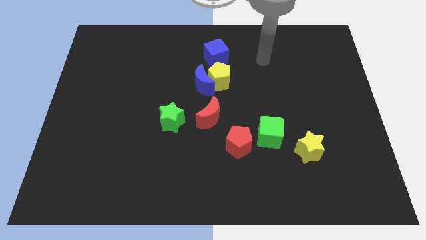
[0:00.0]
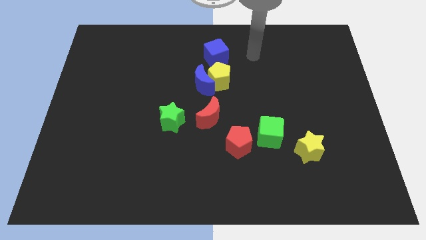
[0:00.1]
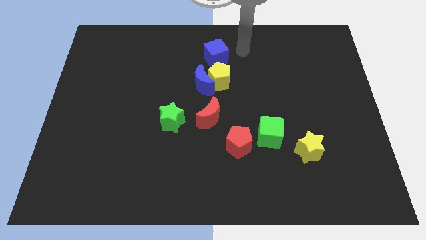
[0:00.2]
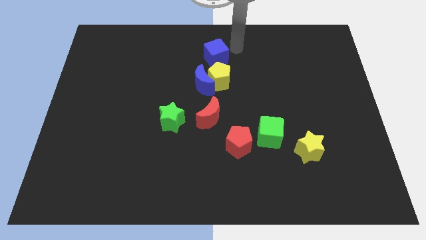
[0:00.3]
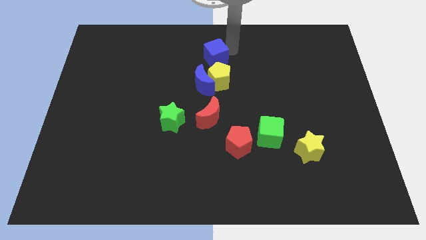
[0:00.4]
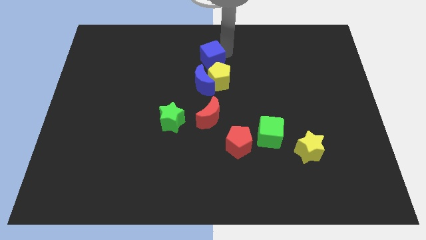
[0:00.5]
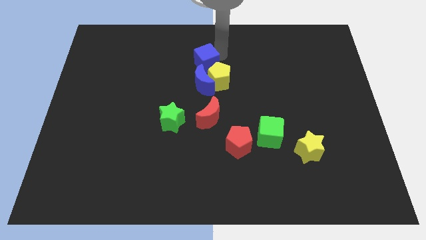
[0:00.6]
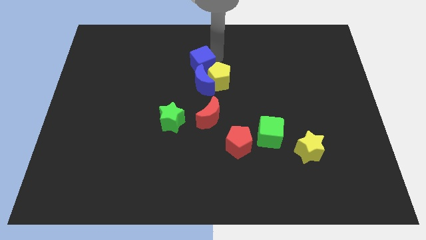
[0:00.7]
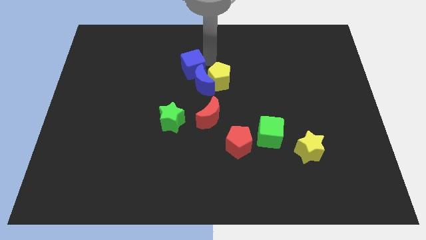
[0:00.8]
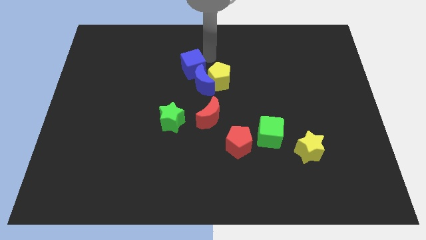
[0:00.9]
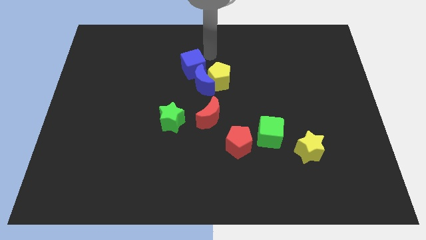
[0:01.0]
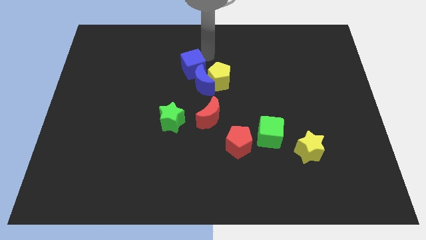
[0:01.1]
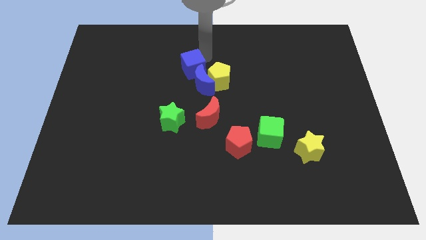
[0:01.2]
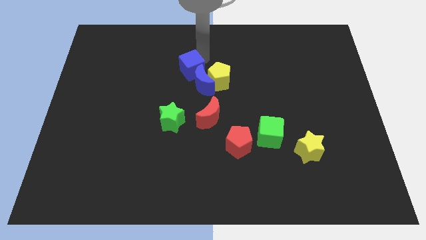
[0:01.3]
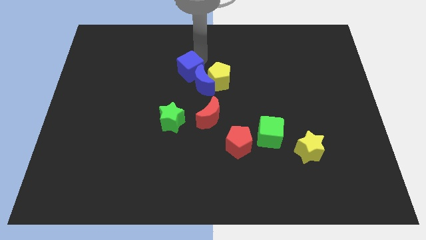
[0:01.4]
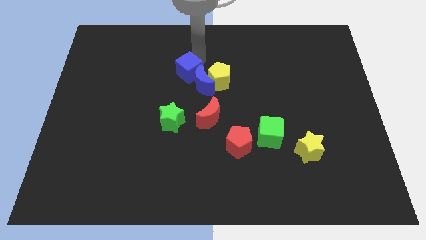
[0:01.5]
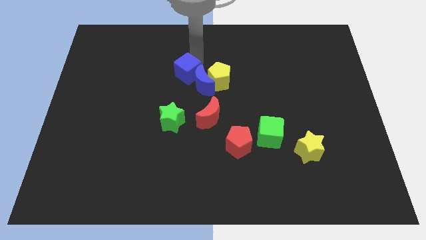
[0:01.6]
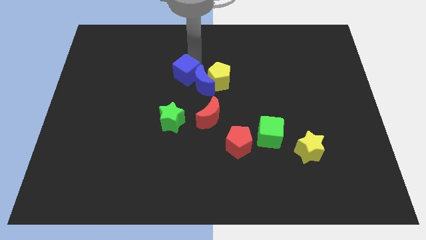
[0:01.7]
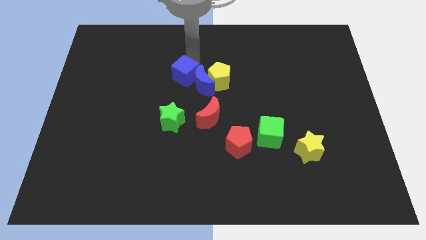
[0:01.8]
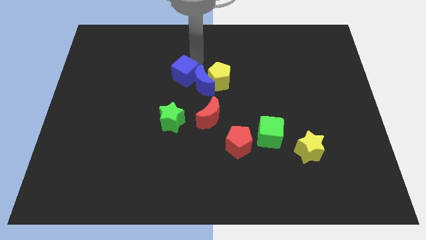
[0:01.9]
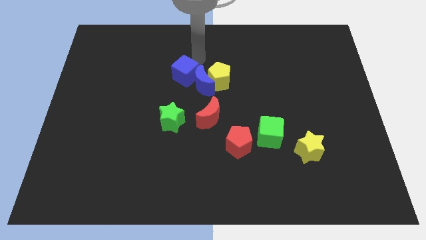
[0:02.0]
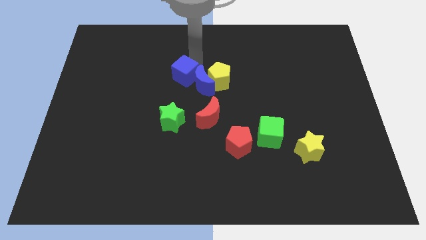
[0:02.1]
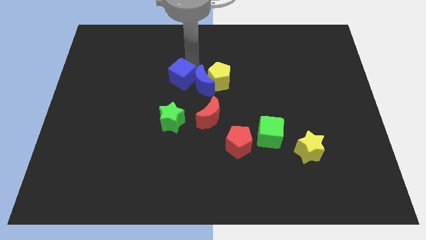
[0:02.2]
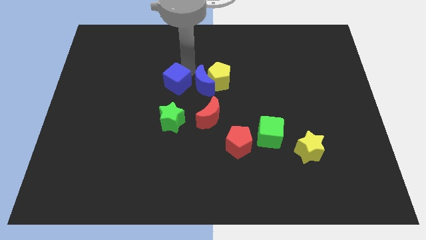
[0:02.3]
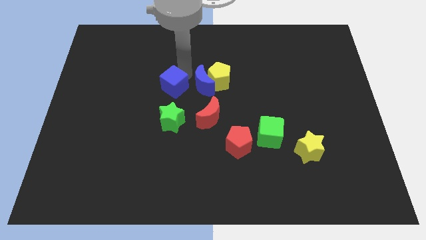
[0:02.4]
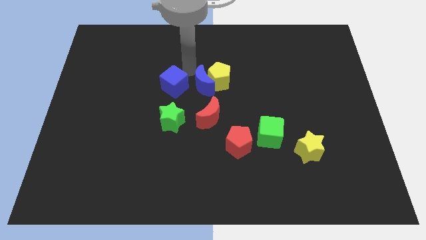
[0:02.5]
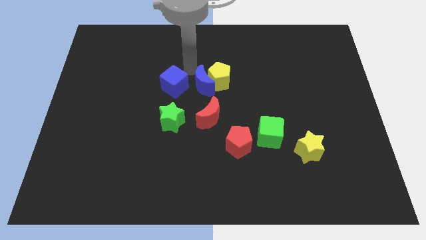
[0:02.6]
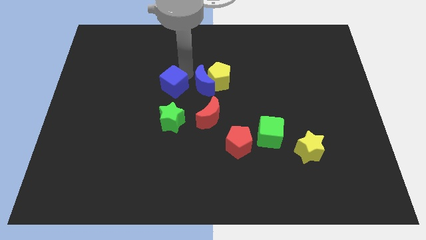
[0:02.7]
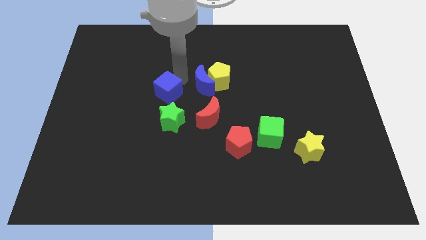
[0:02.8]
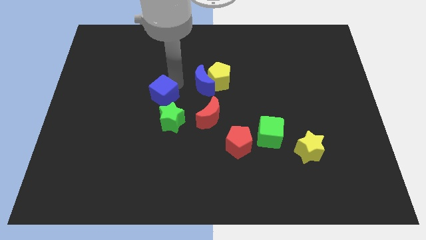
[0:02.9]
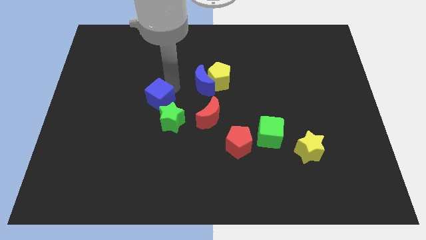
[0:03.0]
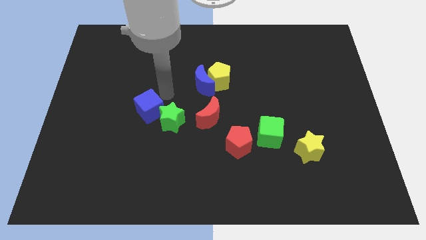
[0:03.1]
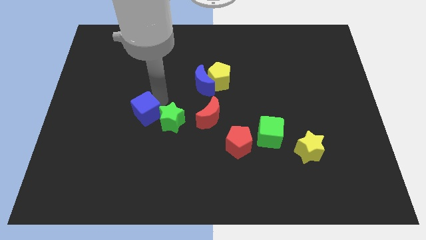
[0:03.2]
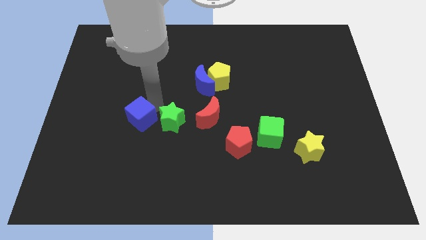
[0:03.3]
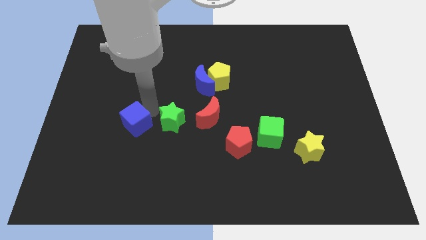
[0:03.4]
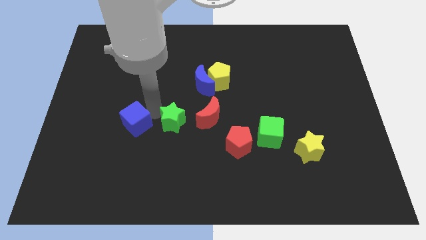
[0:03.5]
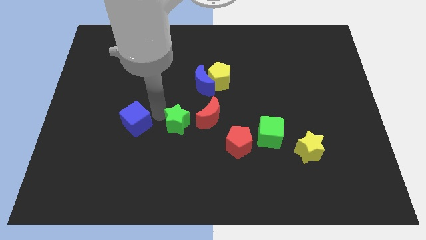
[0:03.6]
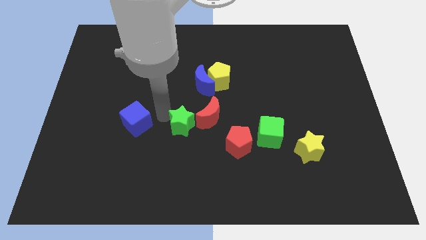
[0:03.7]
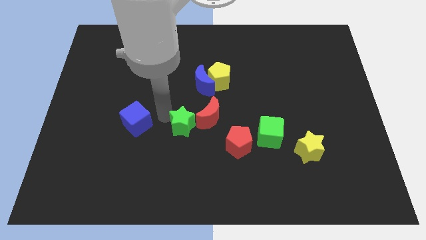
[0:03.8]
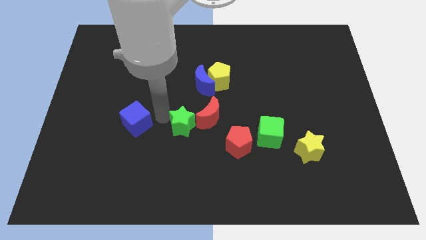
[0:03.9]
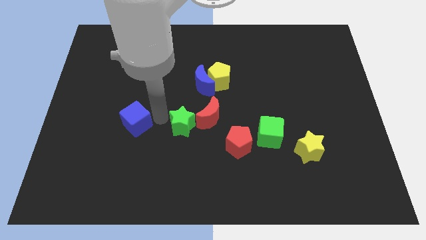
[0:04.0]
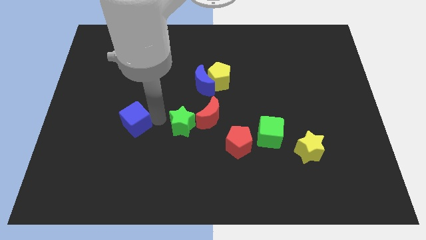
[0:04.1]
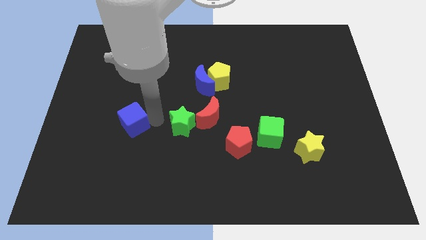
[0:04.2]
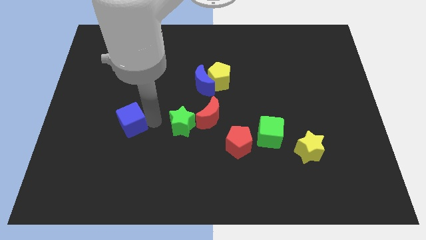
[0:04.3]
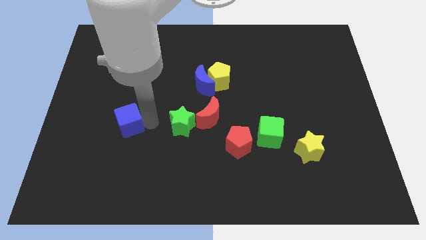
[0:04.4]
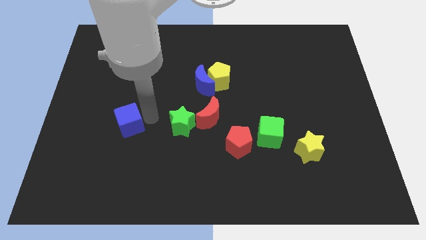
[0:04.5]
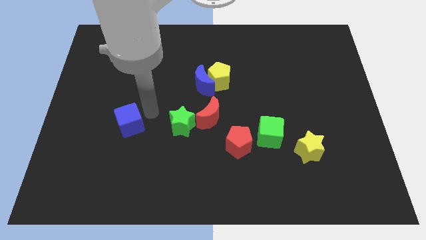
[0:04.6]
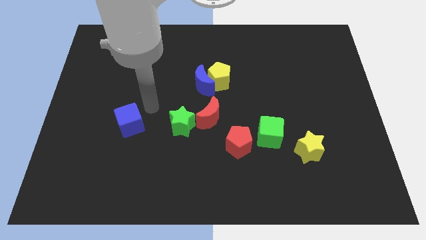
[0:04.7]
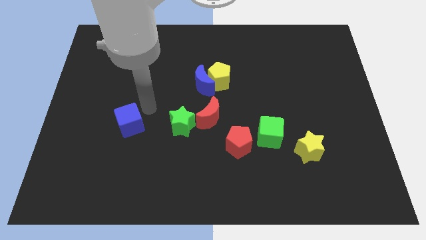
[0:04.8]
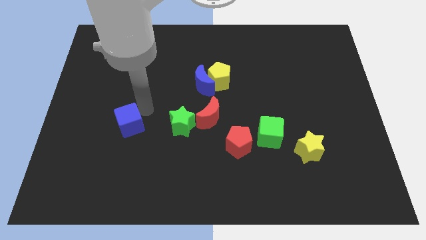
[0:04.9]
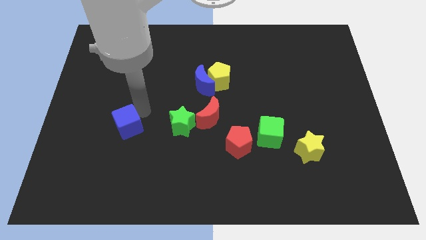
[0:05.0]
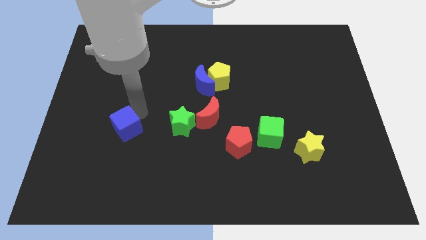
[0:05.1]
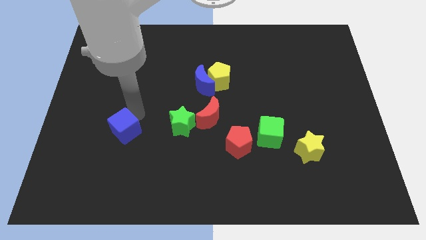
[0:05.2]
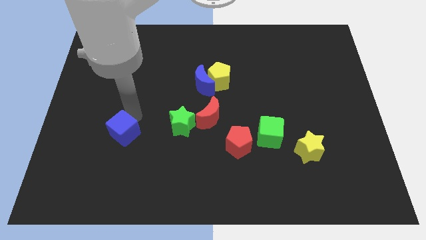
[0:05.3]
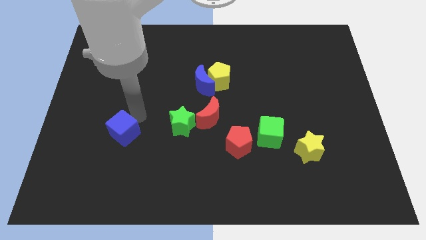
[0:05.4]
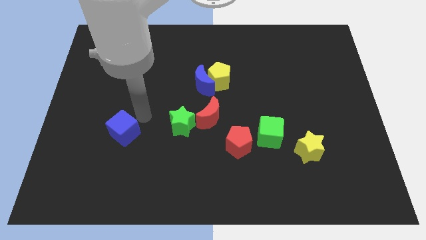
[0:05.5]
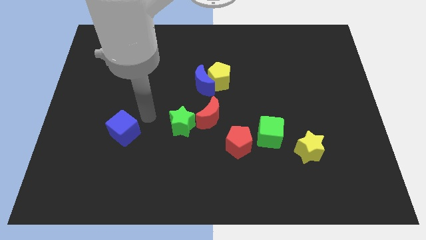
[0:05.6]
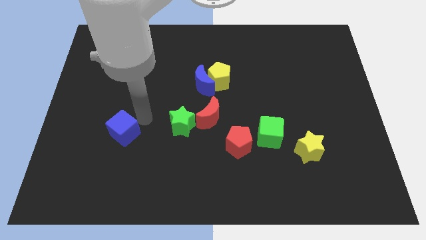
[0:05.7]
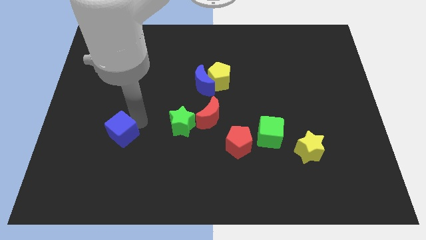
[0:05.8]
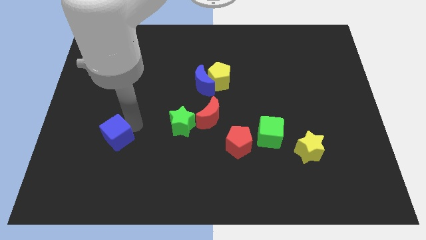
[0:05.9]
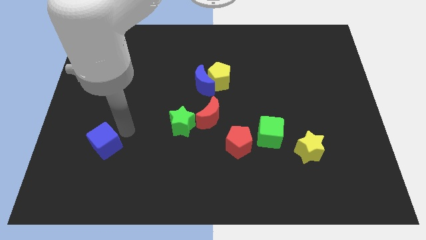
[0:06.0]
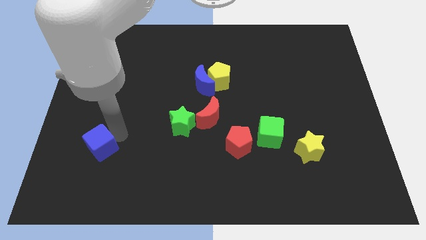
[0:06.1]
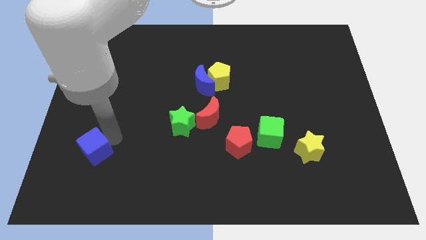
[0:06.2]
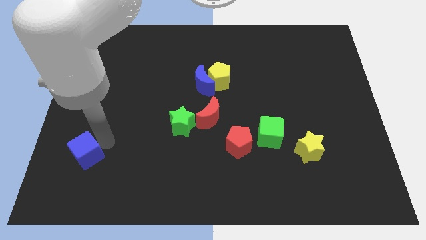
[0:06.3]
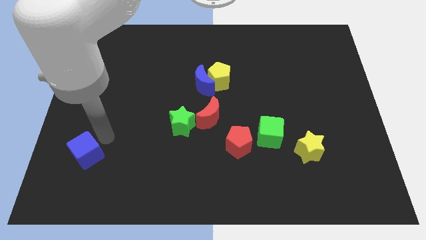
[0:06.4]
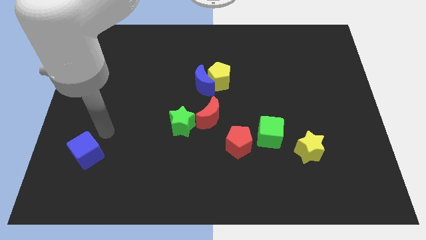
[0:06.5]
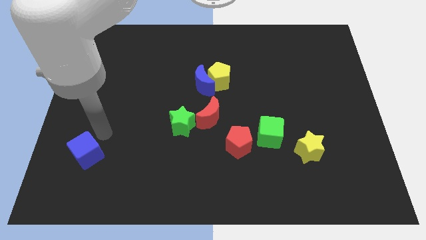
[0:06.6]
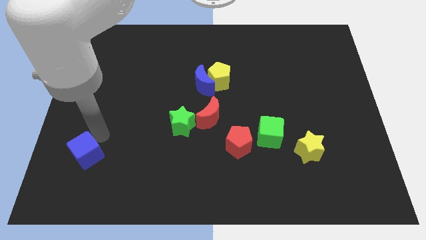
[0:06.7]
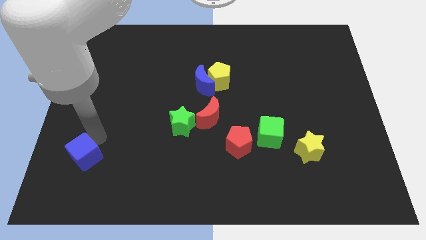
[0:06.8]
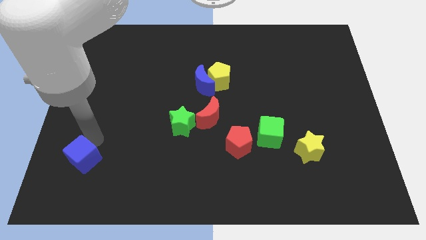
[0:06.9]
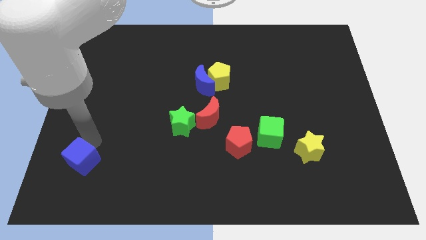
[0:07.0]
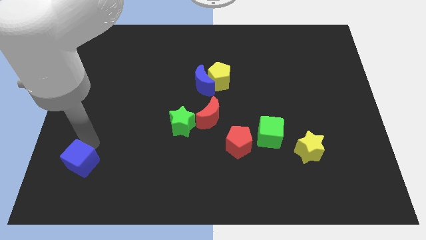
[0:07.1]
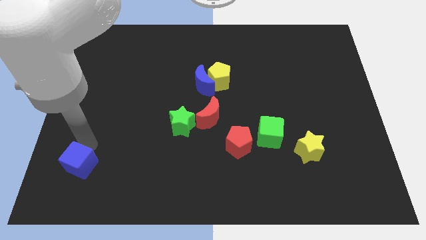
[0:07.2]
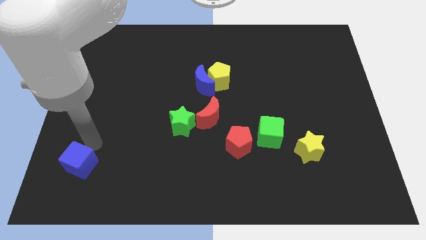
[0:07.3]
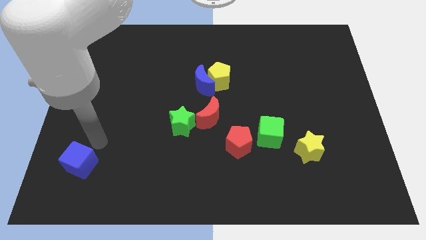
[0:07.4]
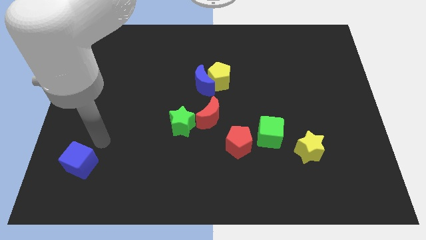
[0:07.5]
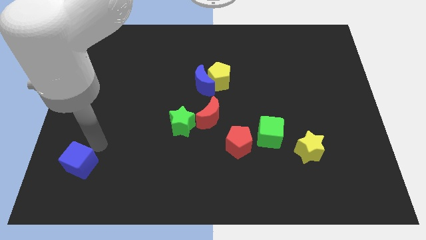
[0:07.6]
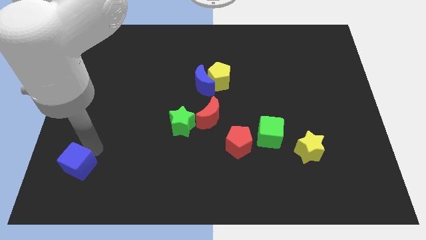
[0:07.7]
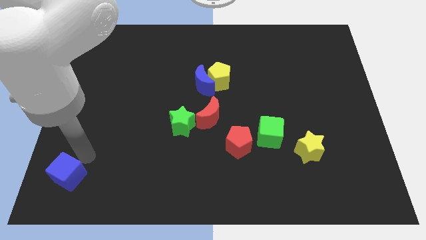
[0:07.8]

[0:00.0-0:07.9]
move the blue cube to the bottom left corner

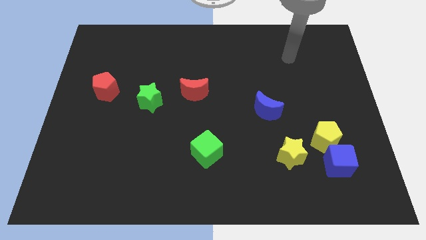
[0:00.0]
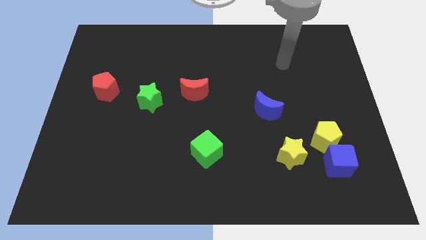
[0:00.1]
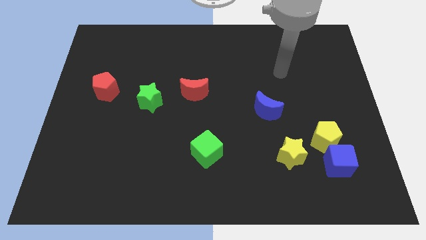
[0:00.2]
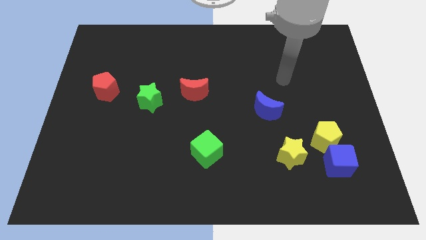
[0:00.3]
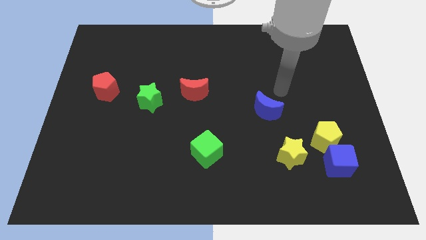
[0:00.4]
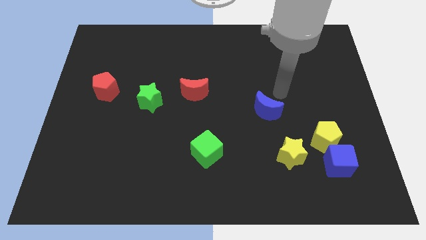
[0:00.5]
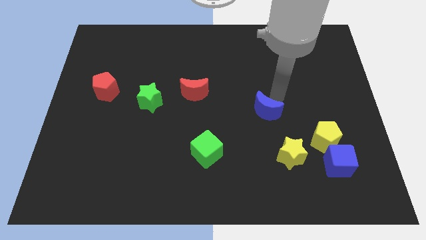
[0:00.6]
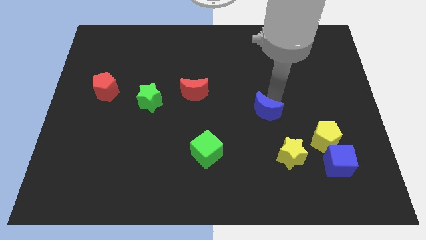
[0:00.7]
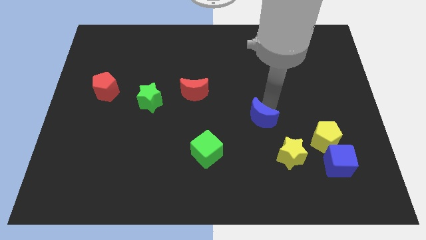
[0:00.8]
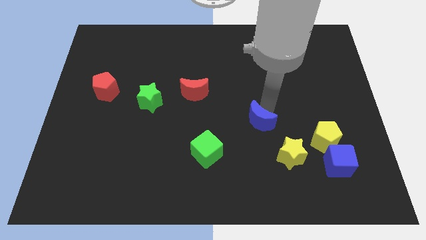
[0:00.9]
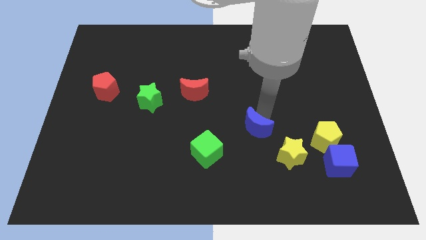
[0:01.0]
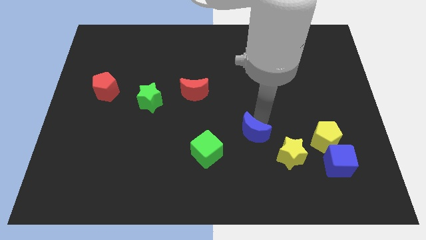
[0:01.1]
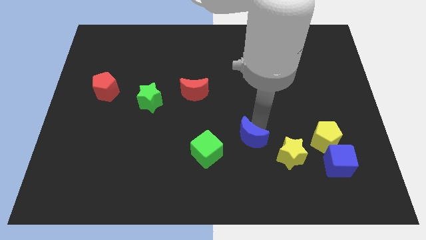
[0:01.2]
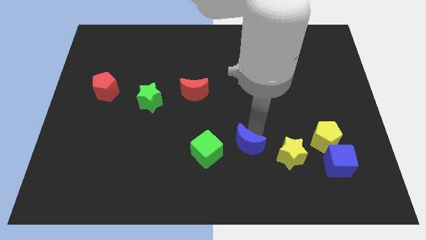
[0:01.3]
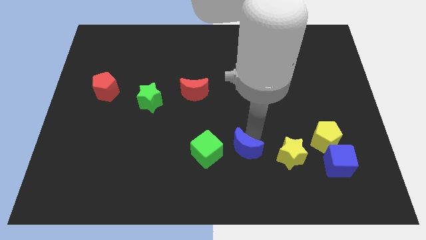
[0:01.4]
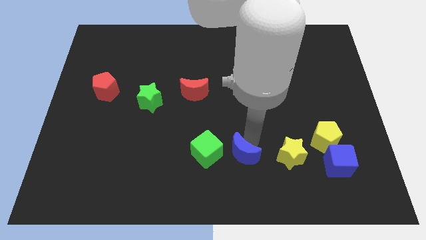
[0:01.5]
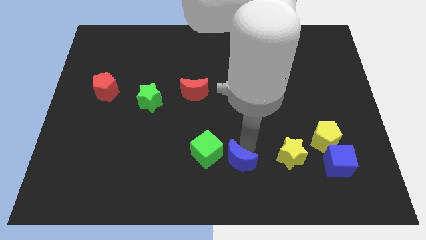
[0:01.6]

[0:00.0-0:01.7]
slide the blue moon to the bottom
